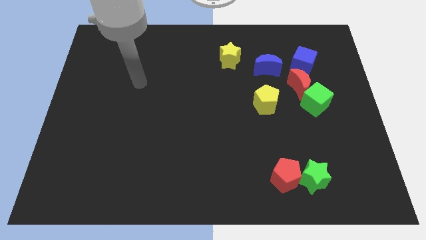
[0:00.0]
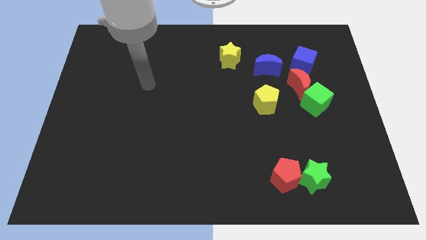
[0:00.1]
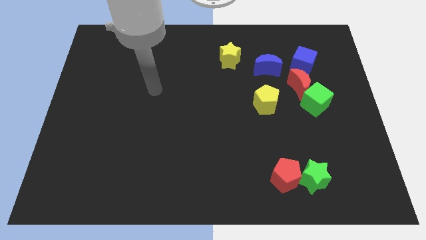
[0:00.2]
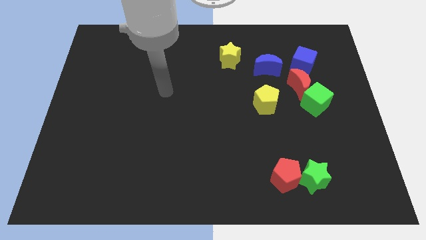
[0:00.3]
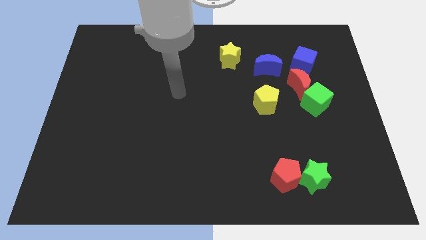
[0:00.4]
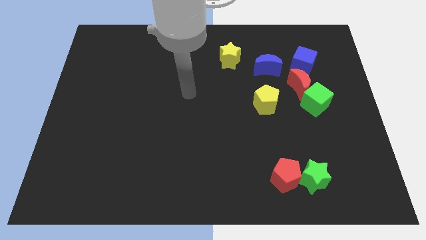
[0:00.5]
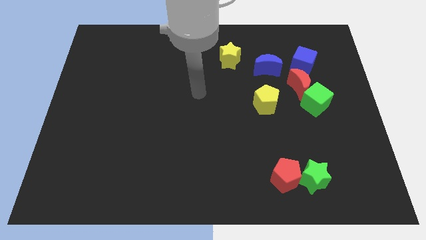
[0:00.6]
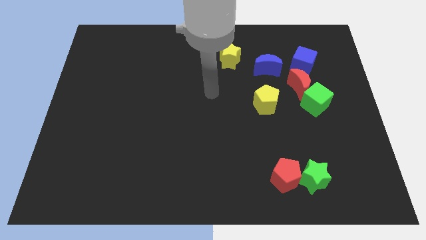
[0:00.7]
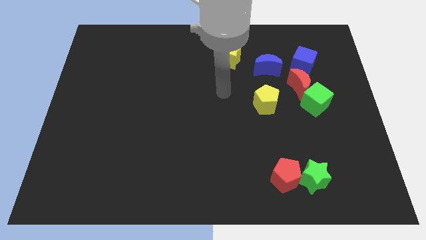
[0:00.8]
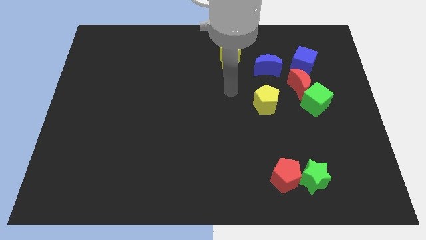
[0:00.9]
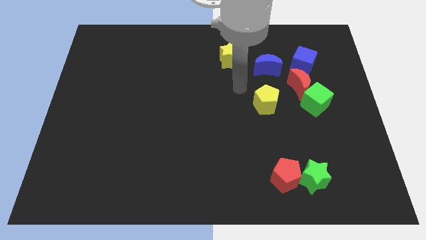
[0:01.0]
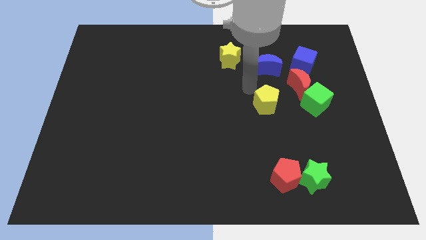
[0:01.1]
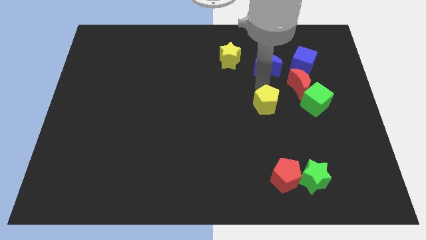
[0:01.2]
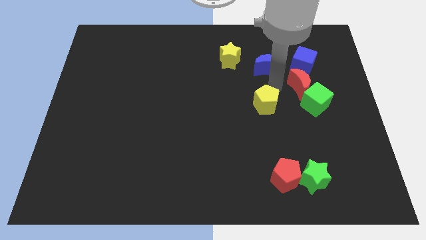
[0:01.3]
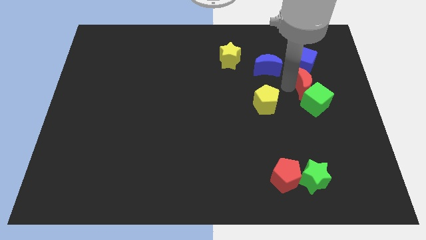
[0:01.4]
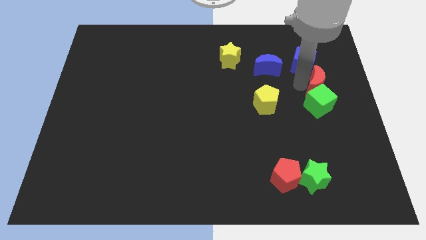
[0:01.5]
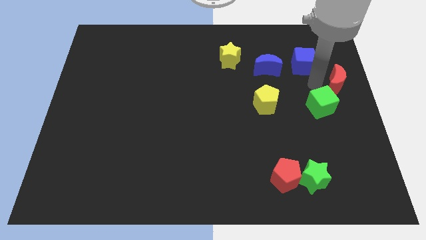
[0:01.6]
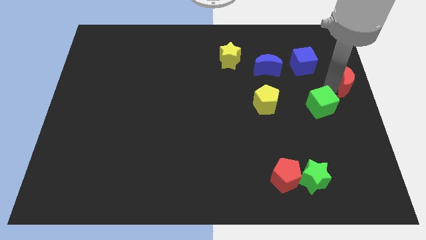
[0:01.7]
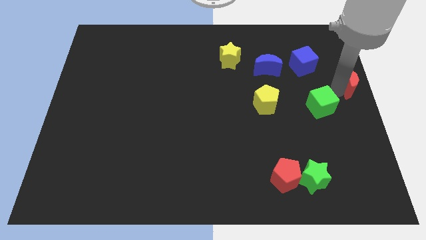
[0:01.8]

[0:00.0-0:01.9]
pull the green cube apart from the red moon

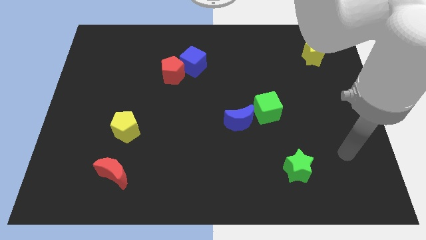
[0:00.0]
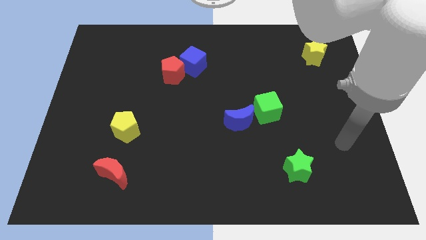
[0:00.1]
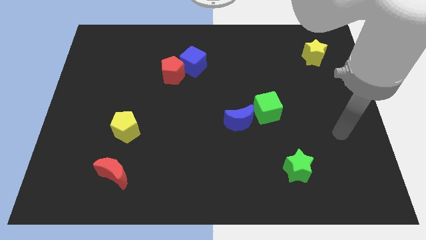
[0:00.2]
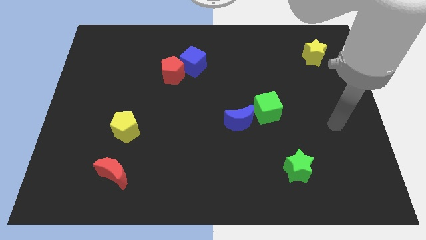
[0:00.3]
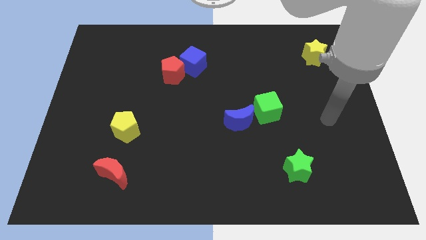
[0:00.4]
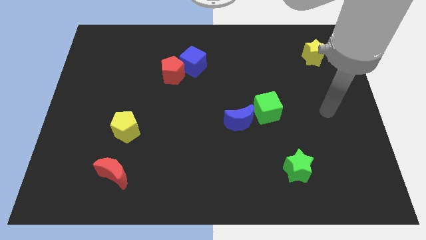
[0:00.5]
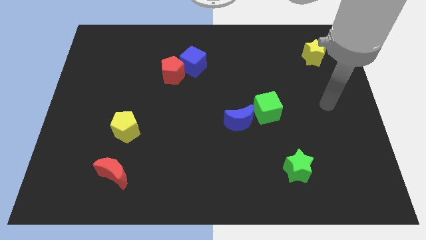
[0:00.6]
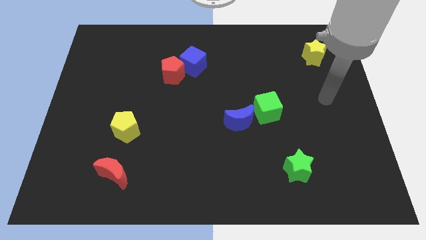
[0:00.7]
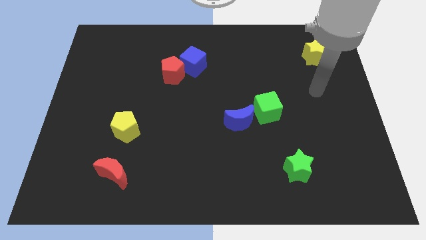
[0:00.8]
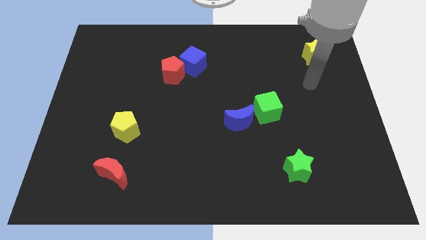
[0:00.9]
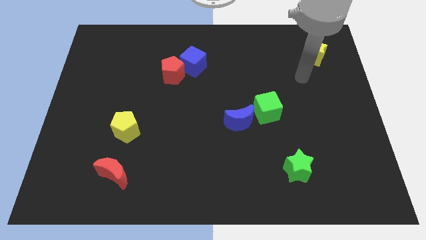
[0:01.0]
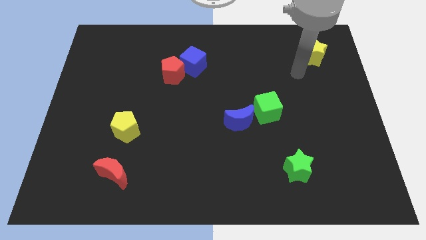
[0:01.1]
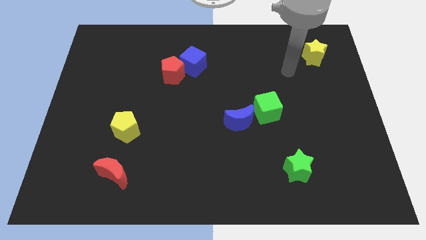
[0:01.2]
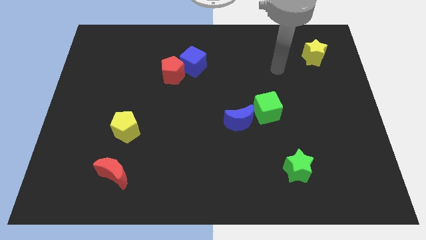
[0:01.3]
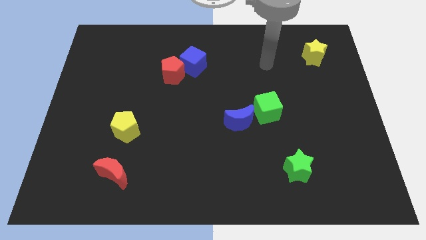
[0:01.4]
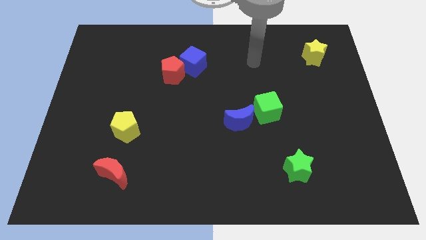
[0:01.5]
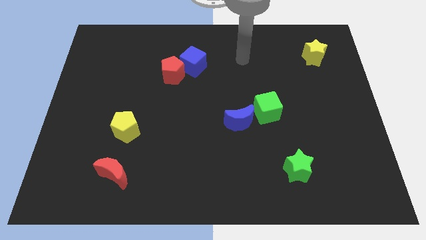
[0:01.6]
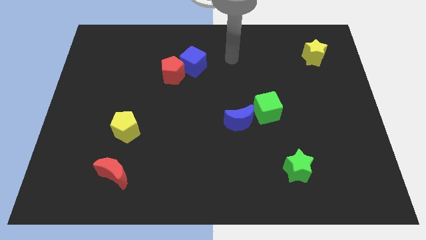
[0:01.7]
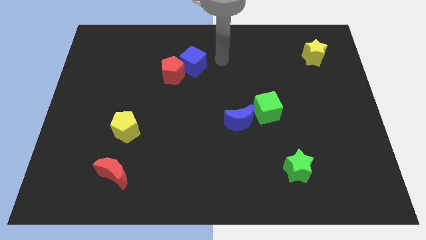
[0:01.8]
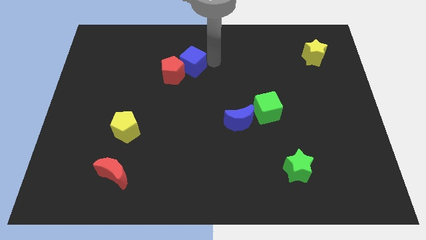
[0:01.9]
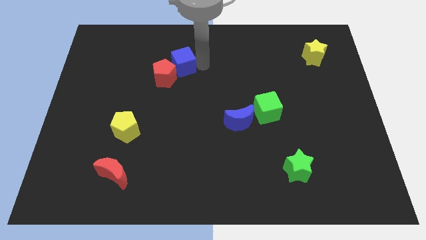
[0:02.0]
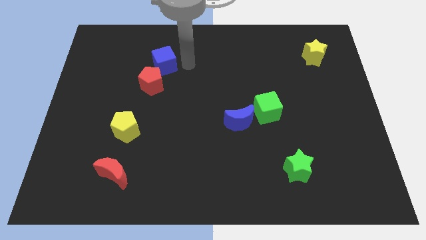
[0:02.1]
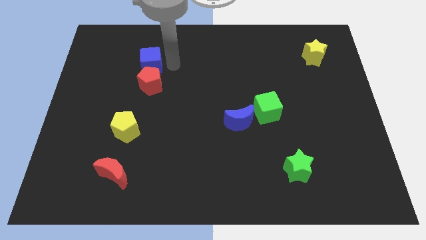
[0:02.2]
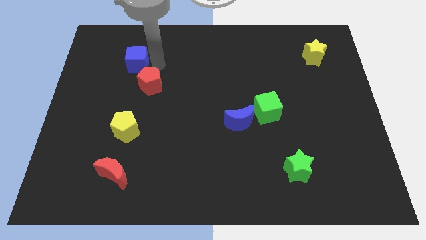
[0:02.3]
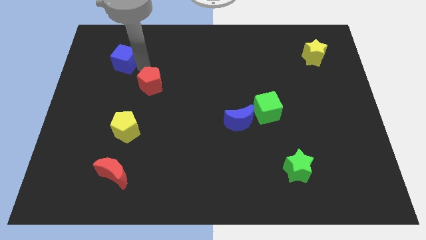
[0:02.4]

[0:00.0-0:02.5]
separate the red pentagon from the blue cube

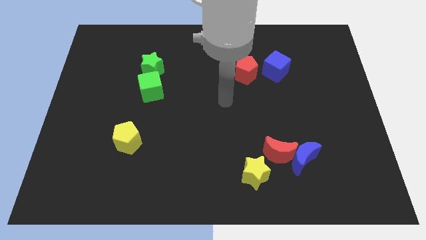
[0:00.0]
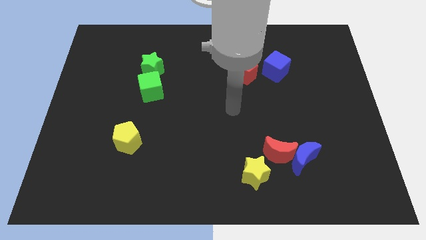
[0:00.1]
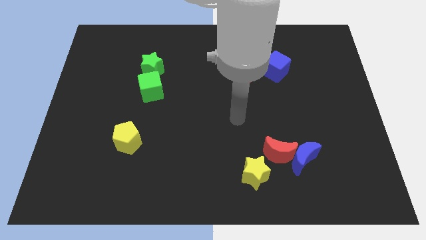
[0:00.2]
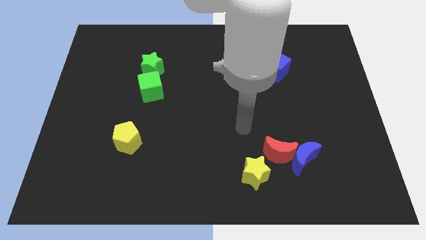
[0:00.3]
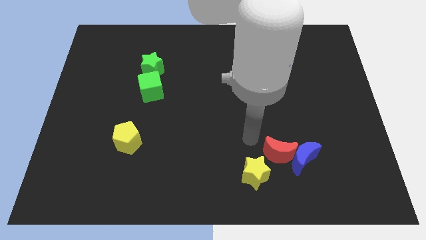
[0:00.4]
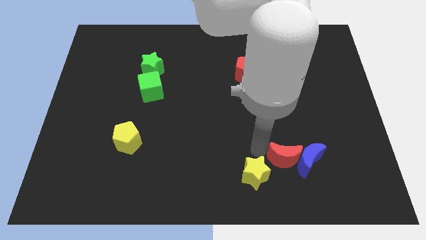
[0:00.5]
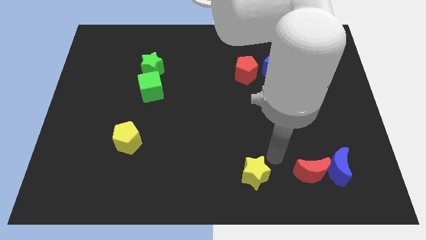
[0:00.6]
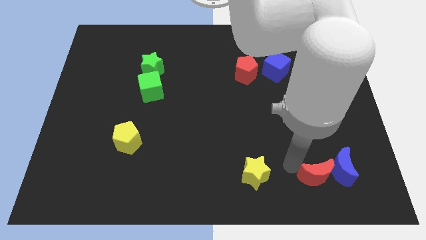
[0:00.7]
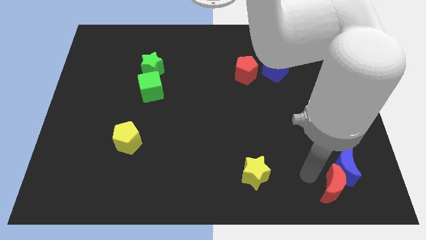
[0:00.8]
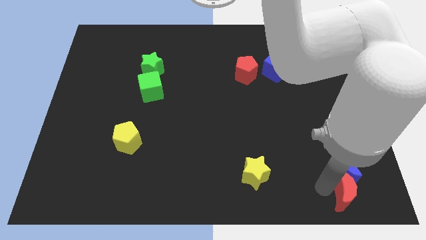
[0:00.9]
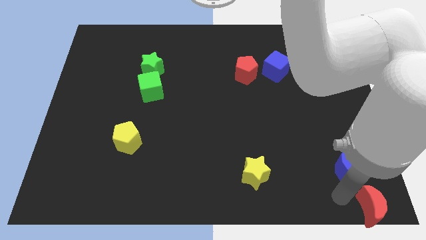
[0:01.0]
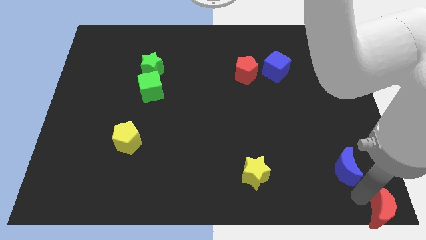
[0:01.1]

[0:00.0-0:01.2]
pull the blue moon apart from the red moon

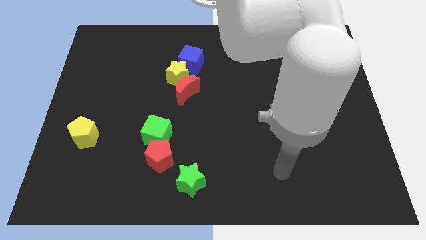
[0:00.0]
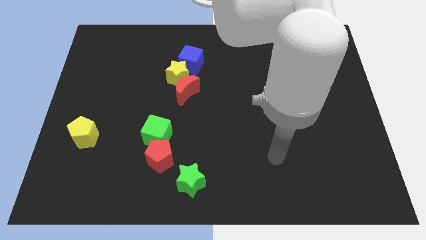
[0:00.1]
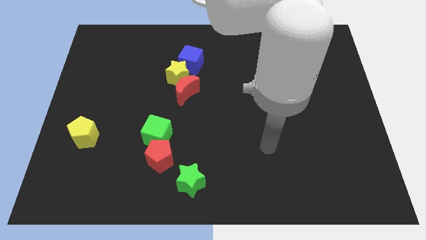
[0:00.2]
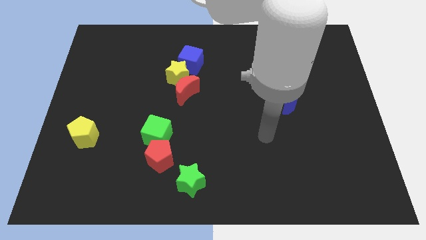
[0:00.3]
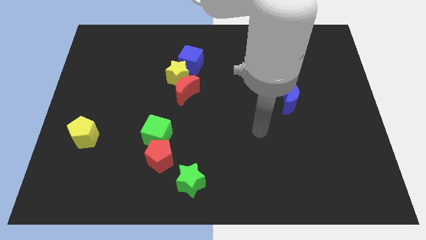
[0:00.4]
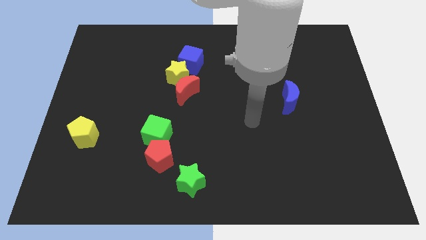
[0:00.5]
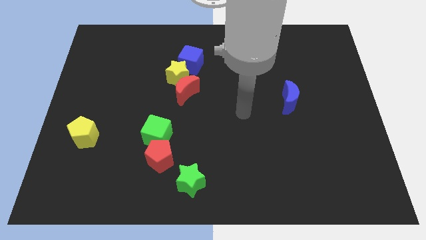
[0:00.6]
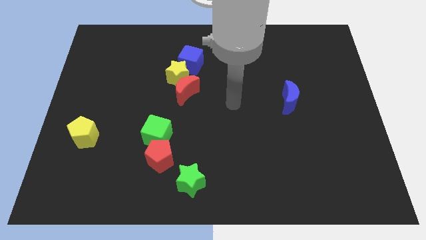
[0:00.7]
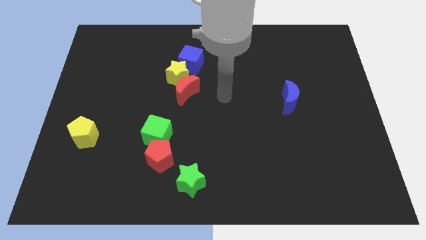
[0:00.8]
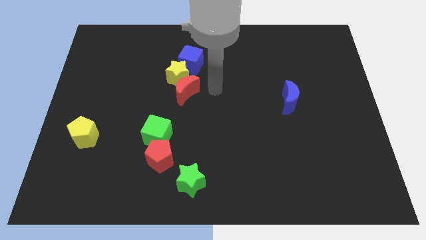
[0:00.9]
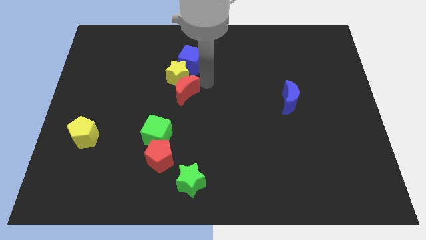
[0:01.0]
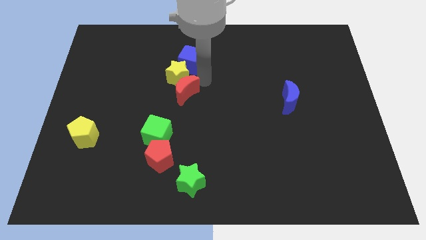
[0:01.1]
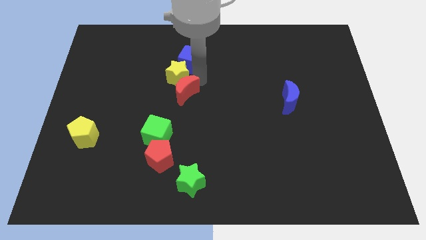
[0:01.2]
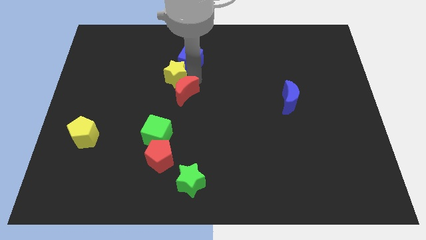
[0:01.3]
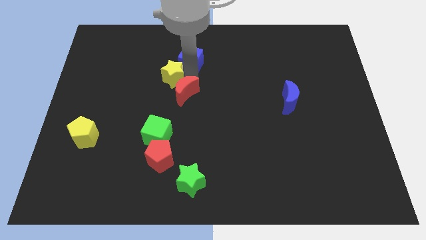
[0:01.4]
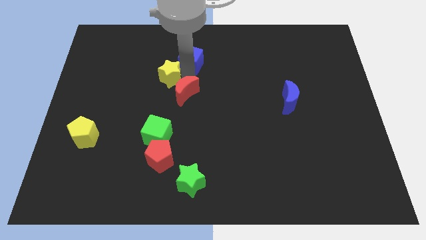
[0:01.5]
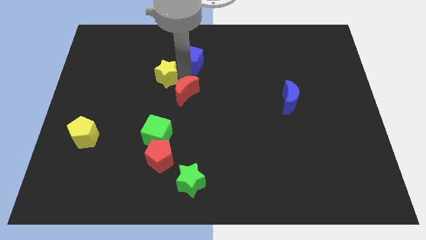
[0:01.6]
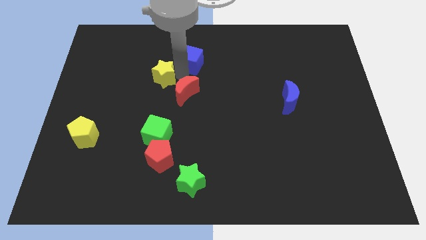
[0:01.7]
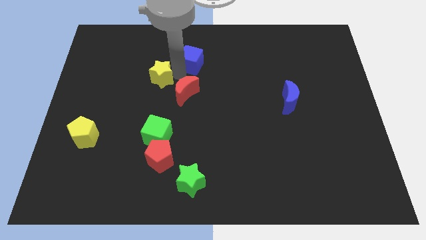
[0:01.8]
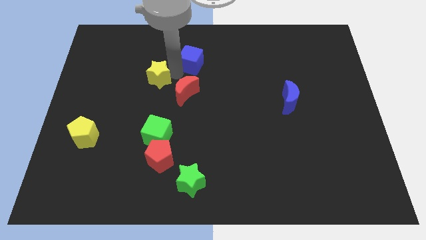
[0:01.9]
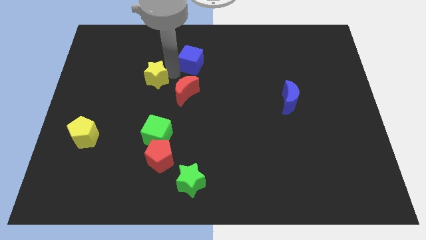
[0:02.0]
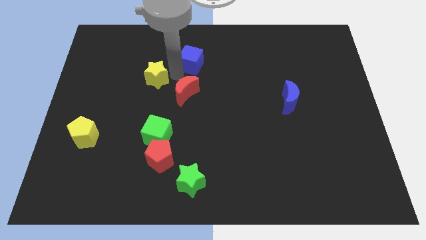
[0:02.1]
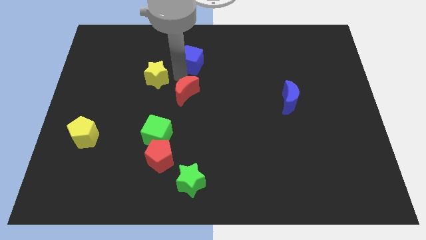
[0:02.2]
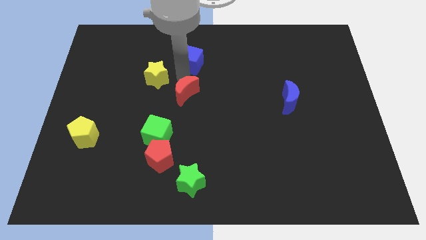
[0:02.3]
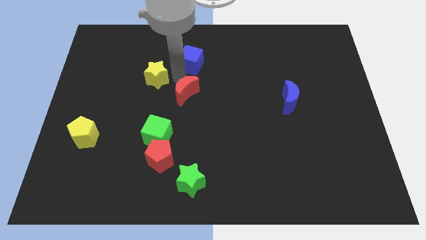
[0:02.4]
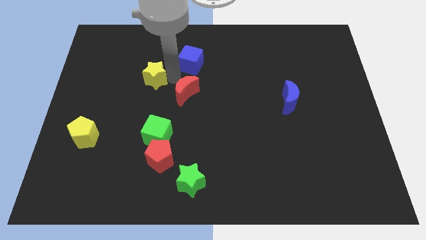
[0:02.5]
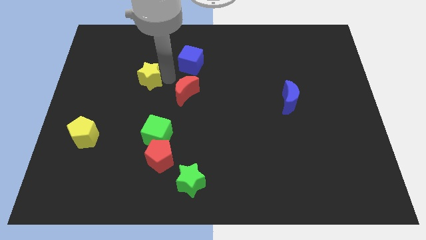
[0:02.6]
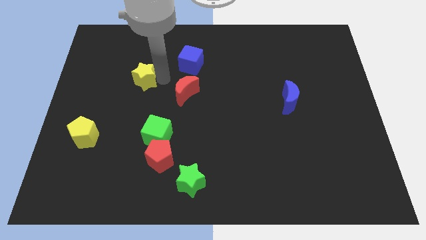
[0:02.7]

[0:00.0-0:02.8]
pull the yellow star apart from the red moon and blue cube

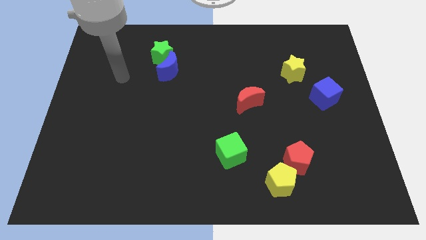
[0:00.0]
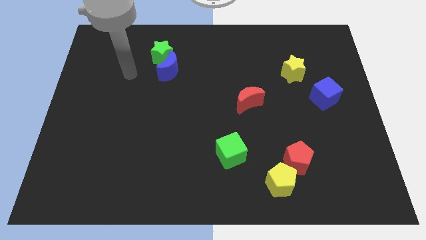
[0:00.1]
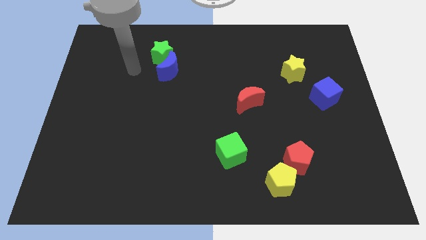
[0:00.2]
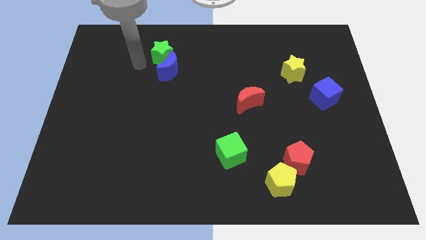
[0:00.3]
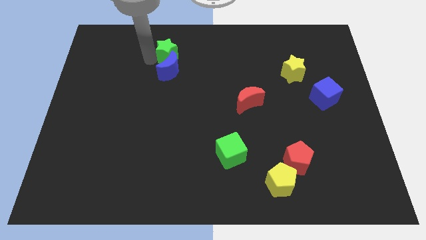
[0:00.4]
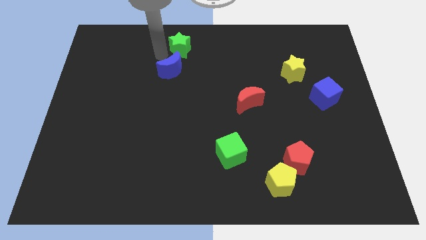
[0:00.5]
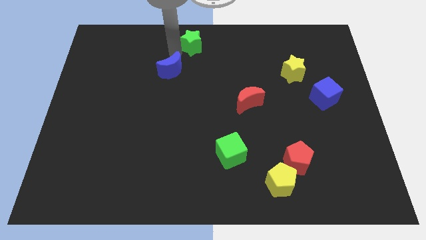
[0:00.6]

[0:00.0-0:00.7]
pull the blue moon apart from the green star
